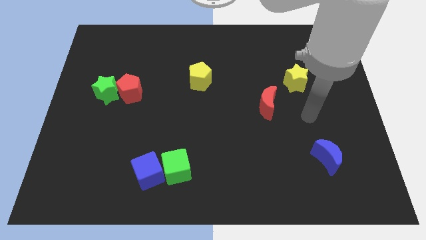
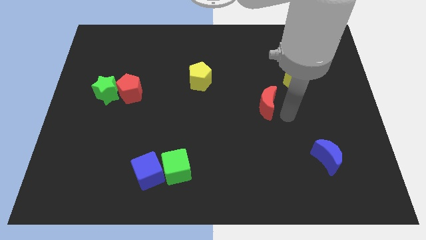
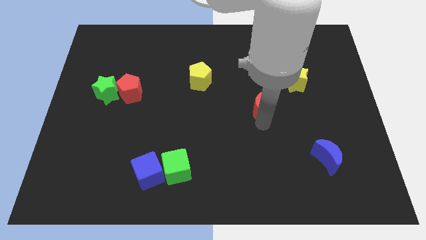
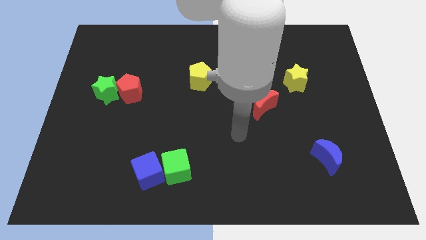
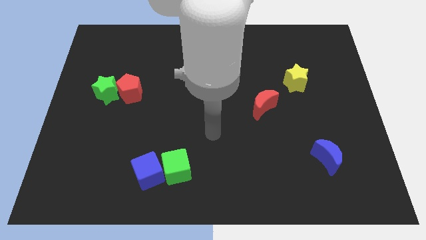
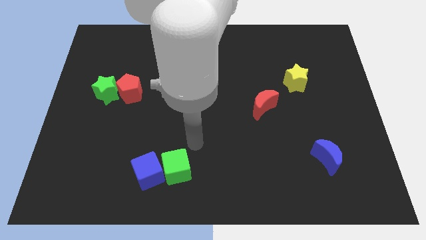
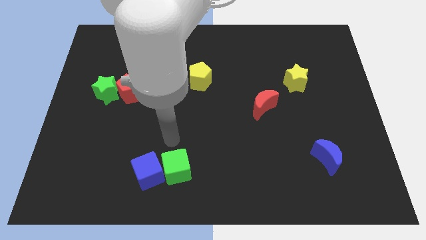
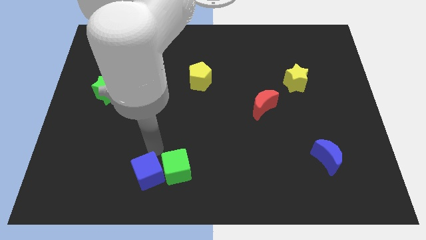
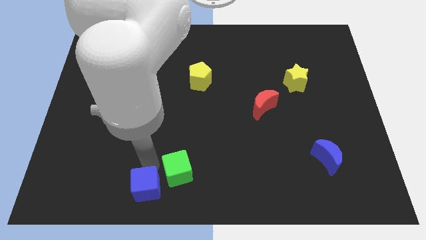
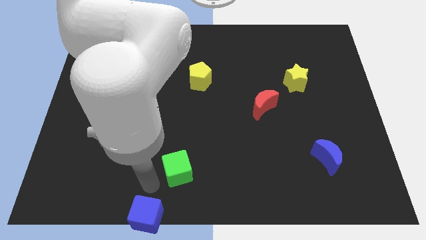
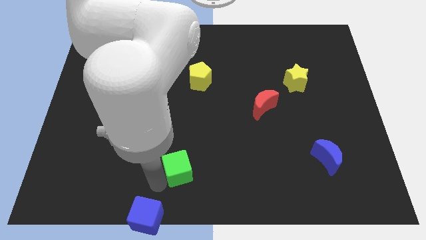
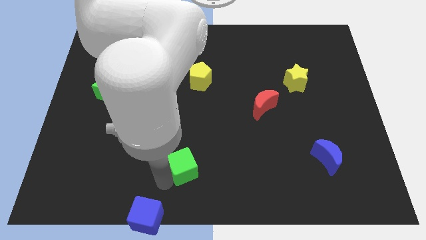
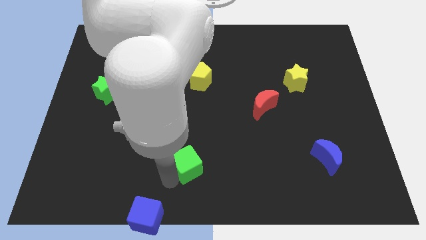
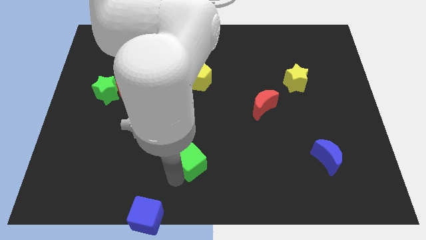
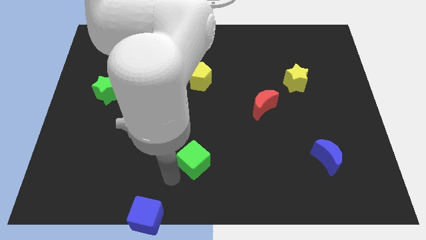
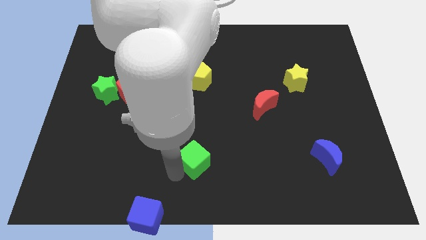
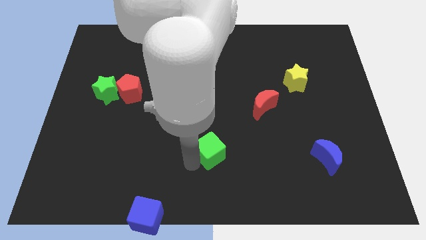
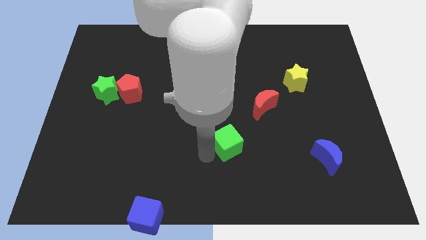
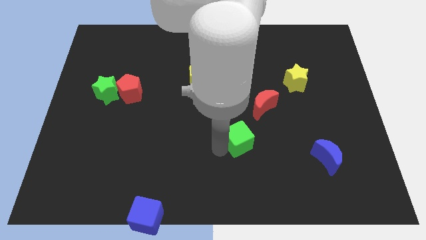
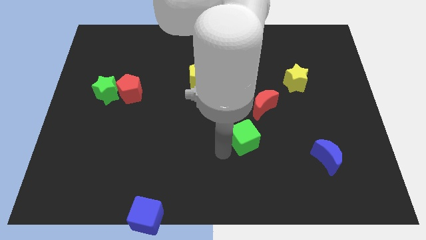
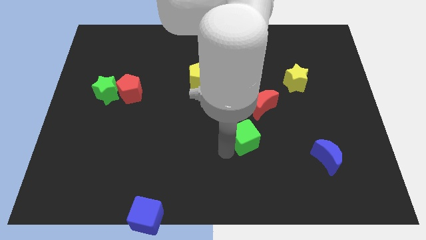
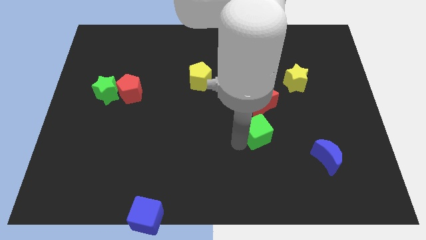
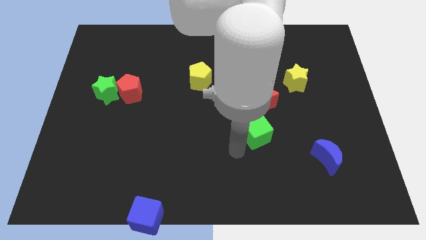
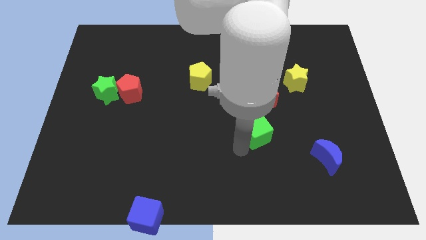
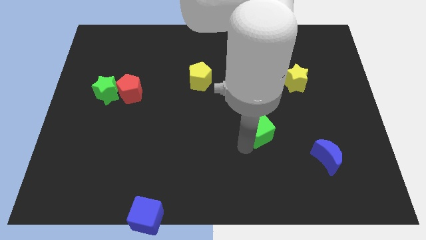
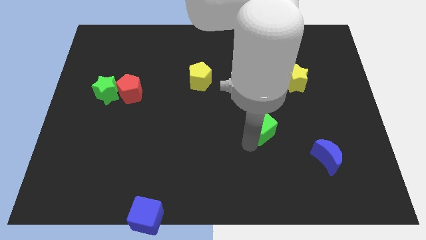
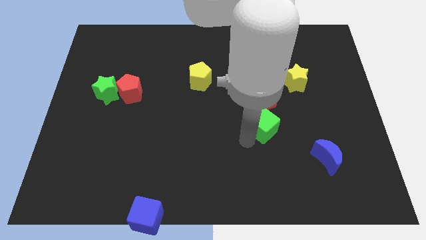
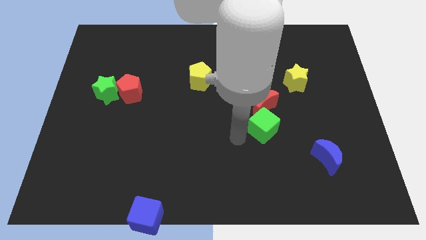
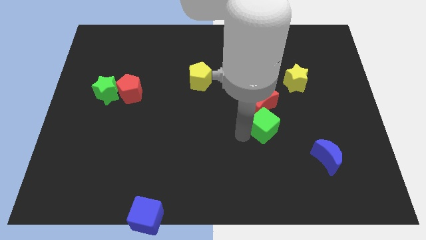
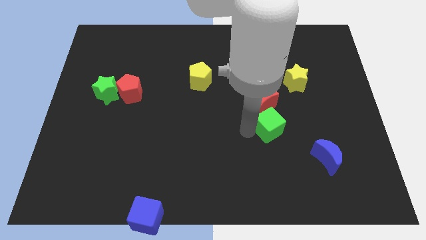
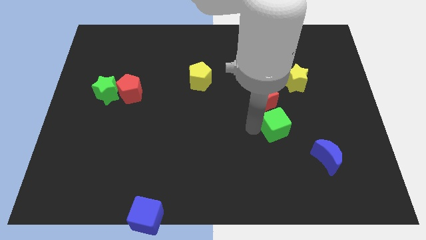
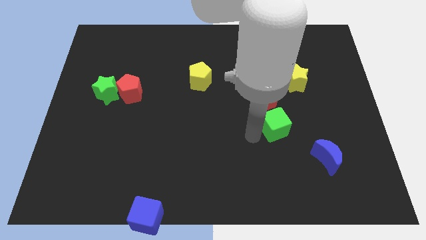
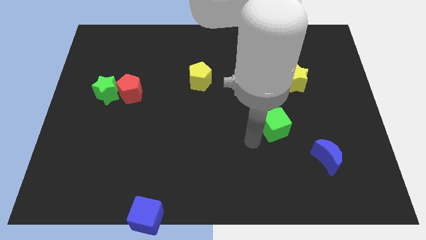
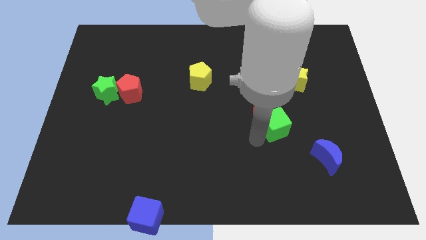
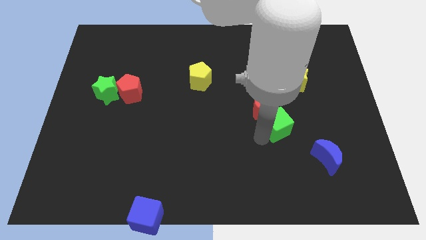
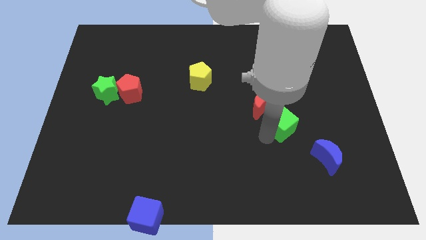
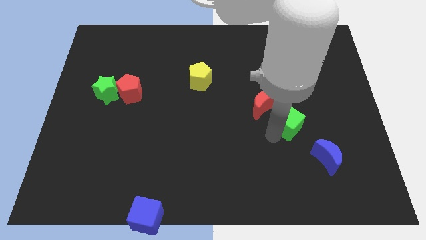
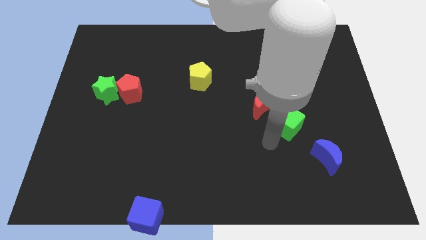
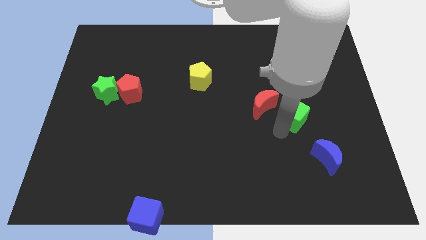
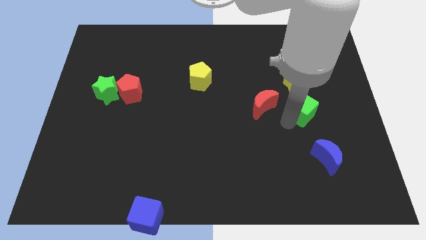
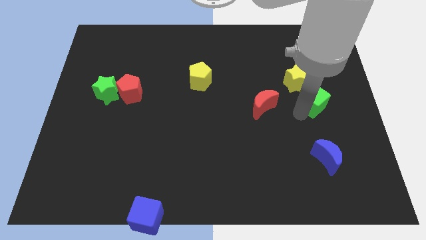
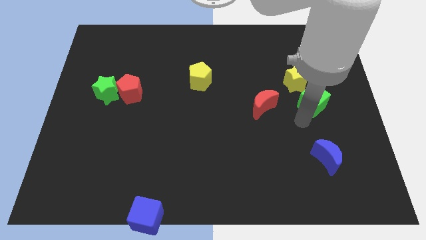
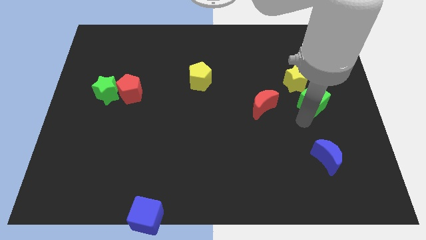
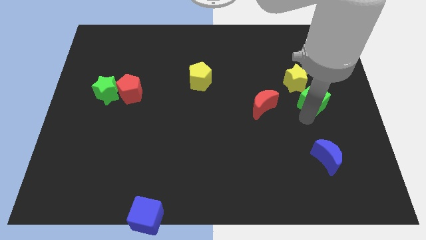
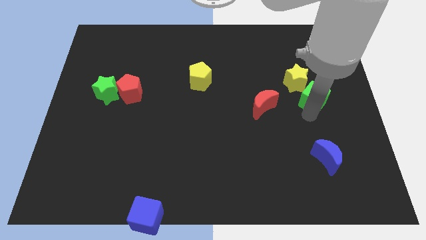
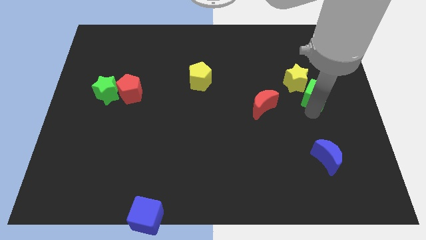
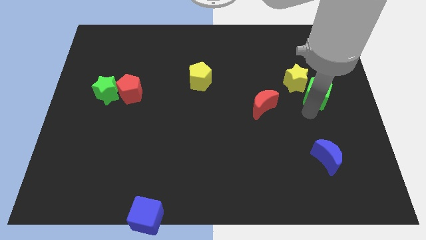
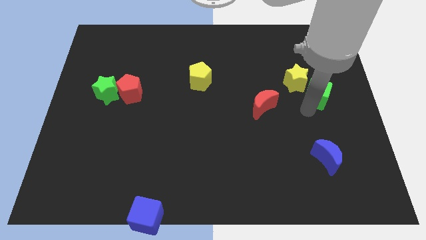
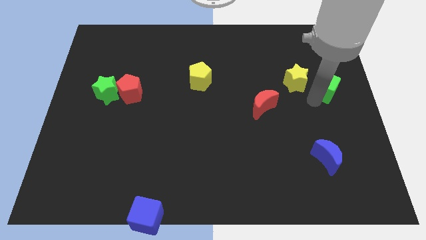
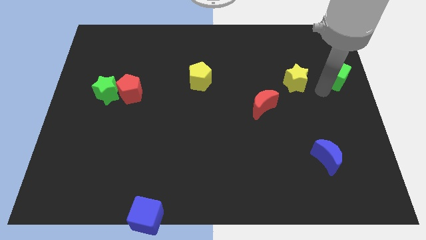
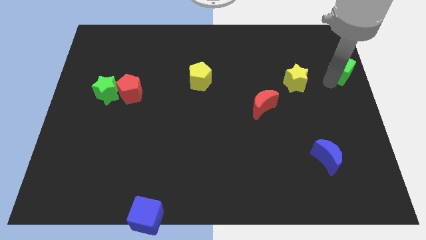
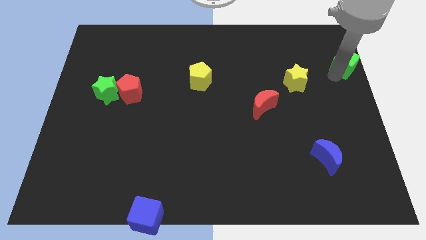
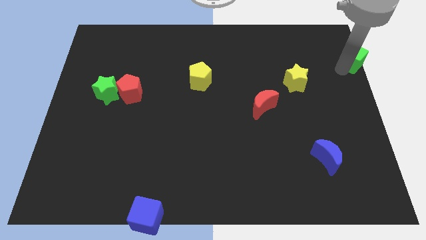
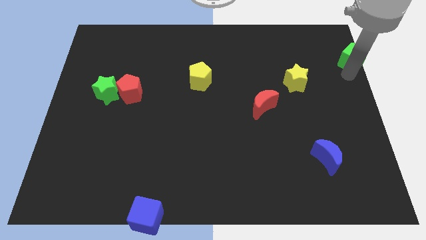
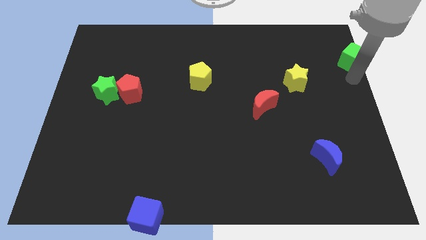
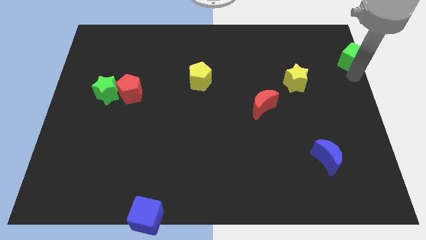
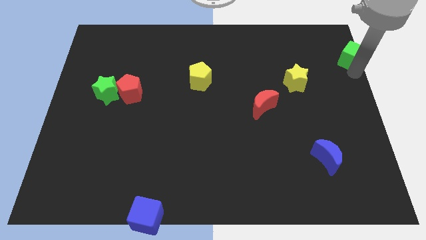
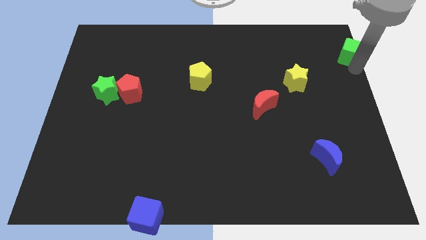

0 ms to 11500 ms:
put the green cube to the top right corner

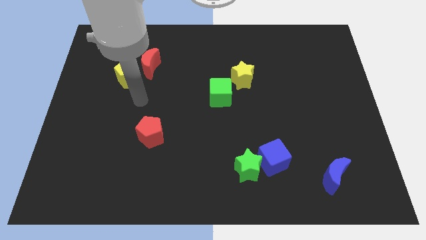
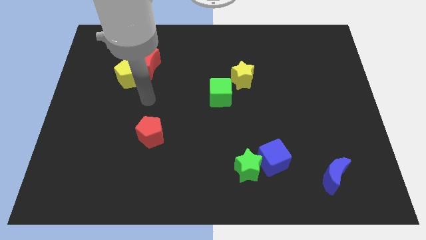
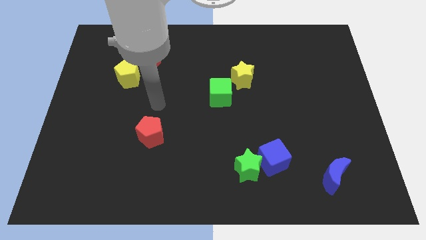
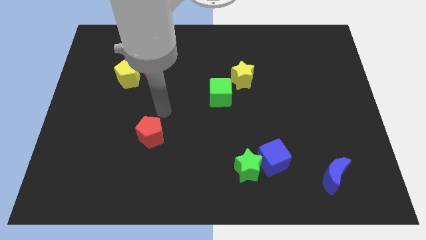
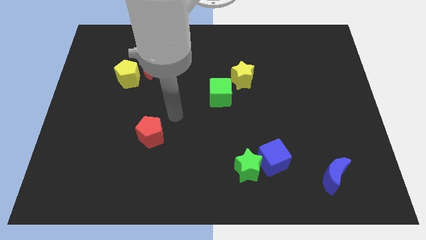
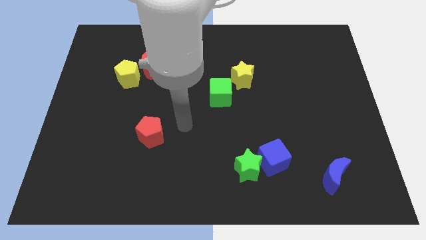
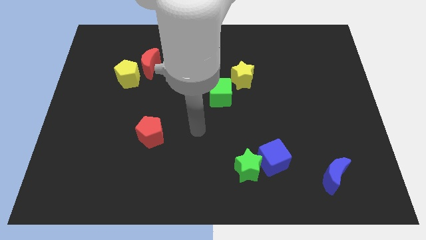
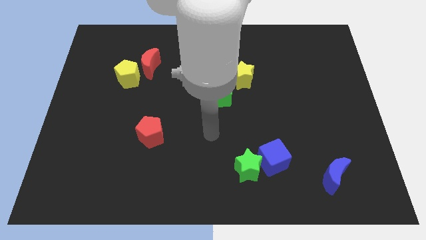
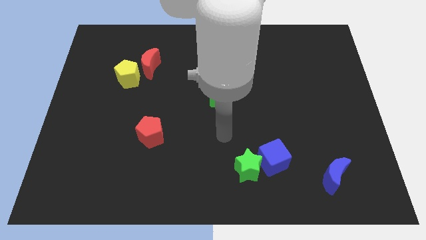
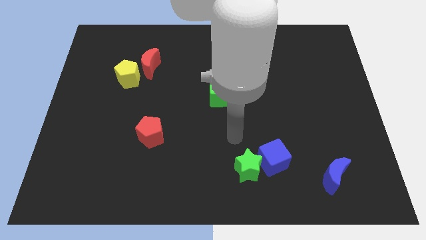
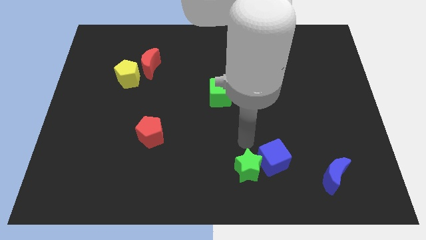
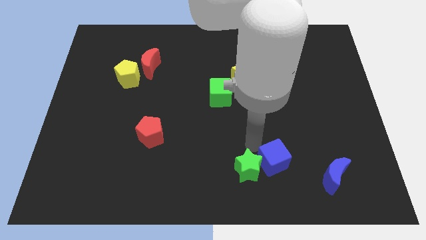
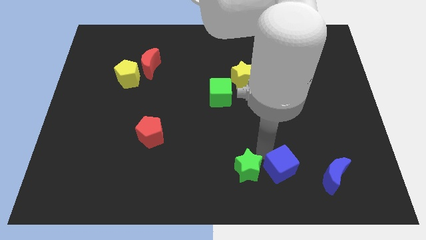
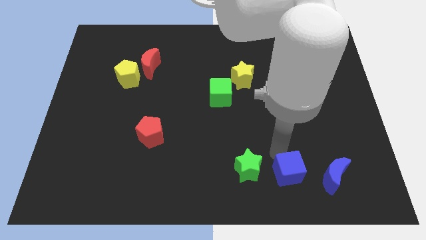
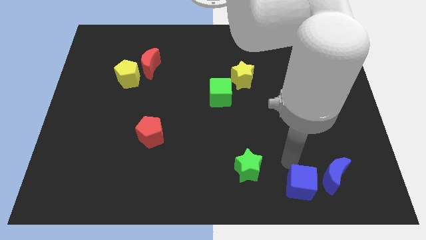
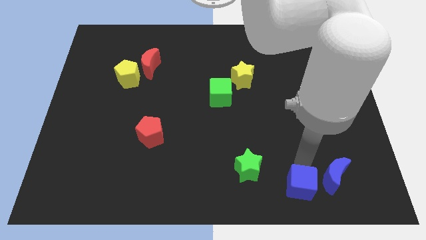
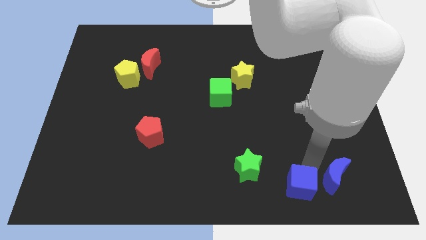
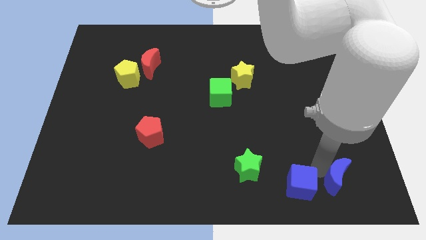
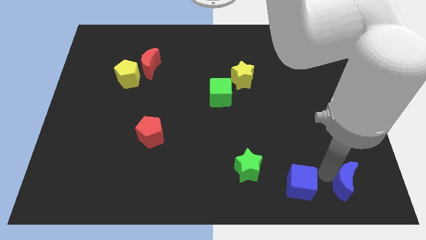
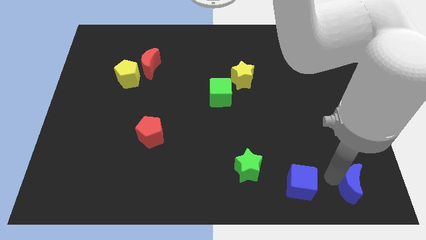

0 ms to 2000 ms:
slide the blue moon to the bottom right corner
